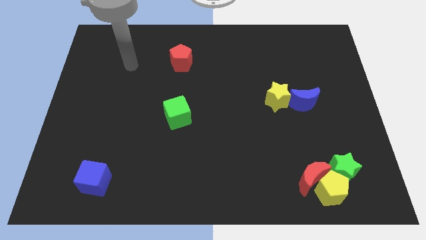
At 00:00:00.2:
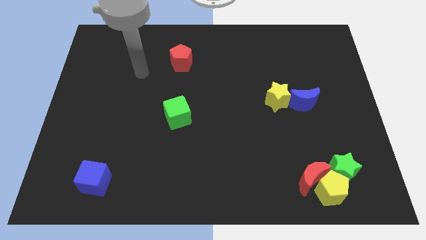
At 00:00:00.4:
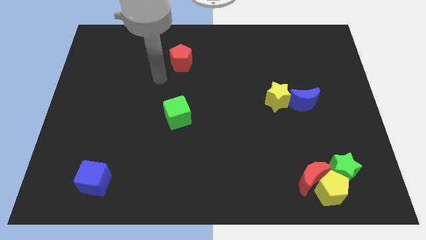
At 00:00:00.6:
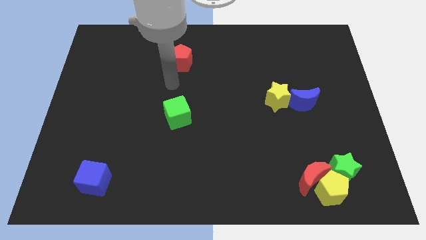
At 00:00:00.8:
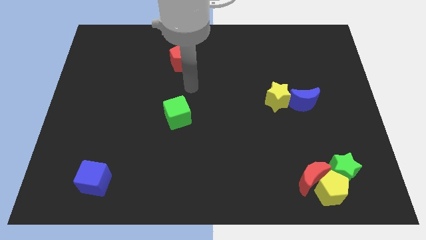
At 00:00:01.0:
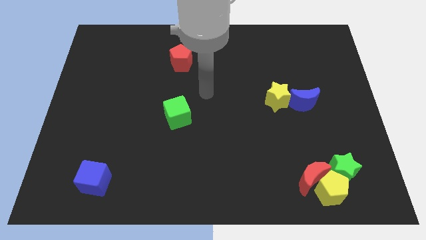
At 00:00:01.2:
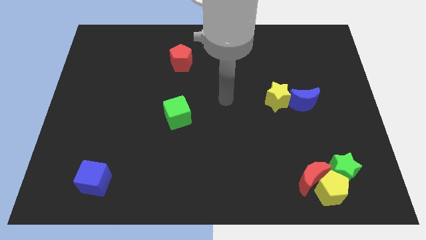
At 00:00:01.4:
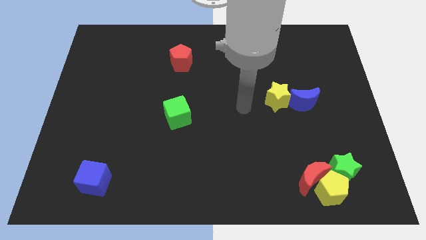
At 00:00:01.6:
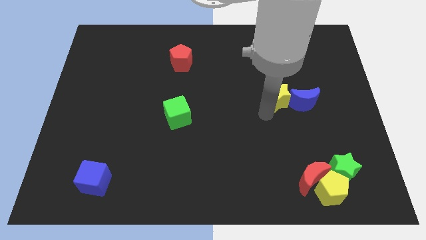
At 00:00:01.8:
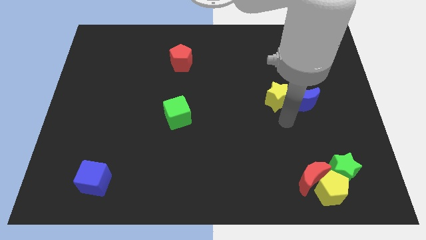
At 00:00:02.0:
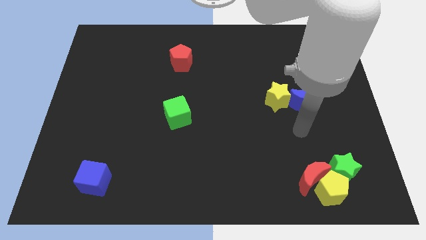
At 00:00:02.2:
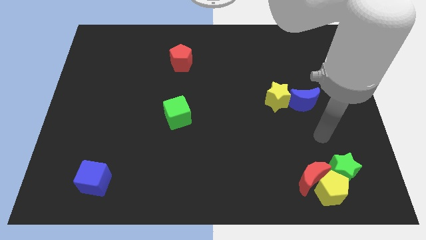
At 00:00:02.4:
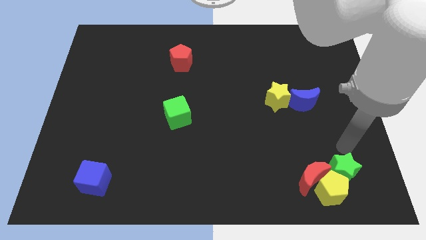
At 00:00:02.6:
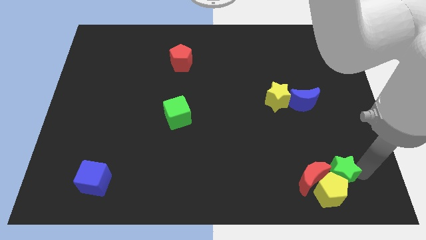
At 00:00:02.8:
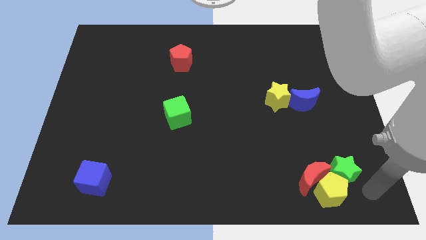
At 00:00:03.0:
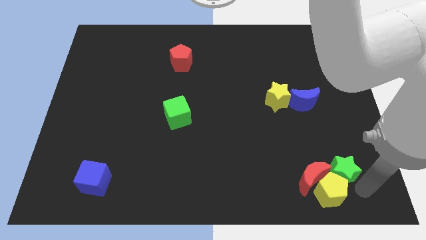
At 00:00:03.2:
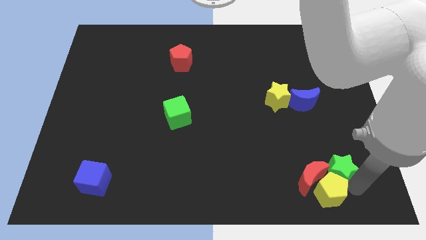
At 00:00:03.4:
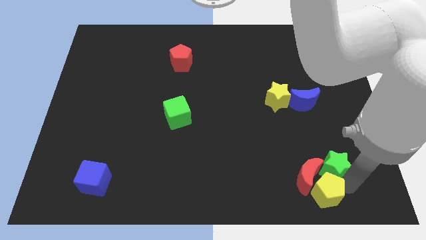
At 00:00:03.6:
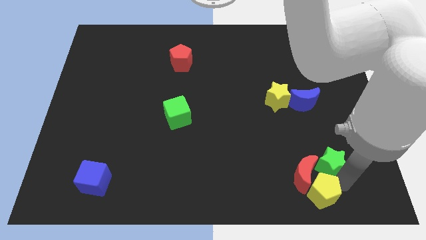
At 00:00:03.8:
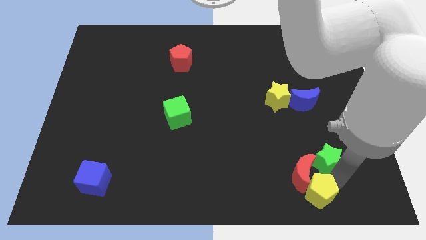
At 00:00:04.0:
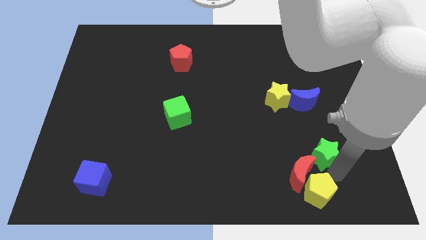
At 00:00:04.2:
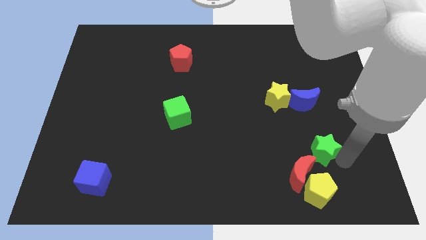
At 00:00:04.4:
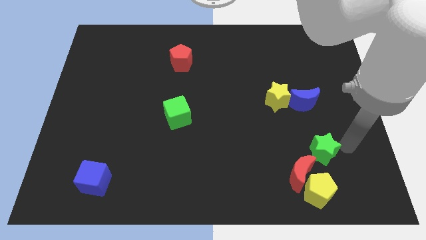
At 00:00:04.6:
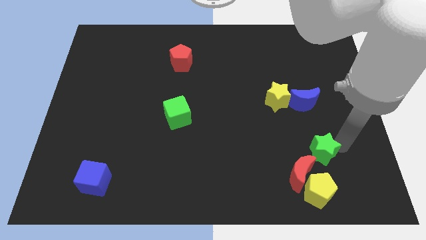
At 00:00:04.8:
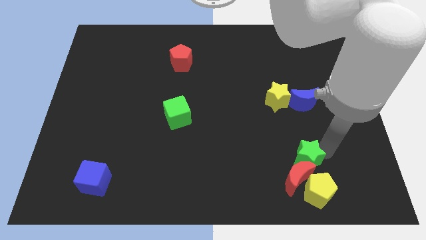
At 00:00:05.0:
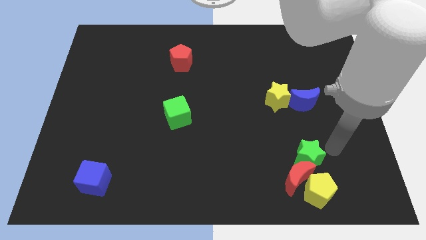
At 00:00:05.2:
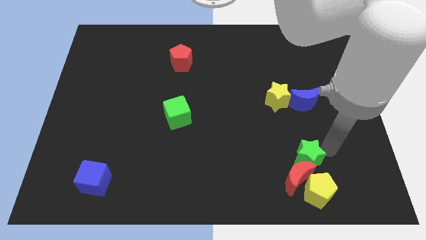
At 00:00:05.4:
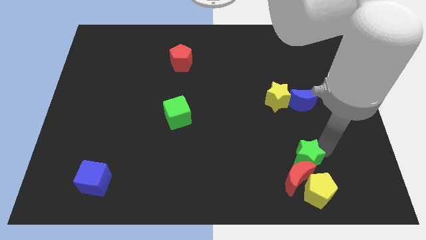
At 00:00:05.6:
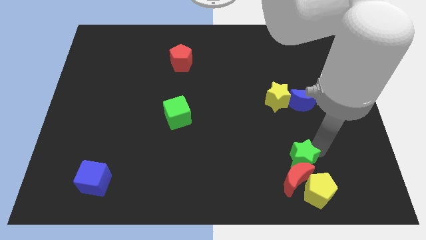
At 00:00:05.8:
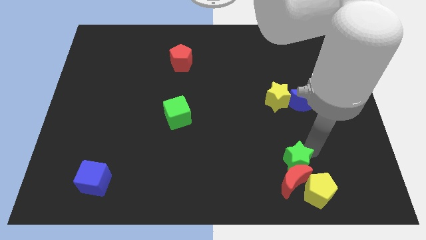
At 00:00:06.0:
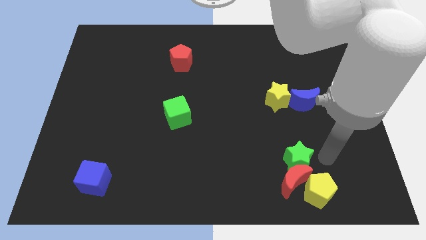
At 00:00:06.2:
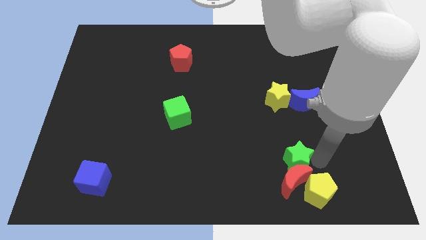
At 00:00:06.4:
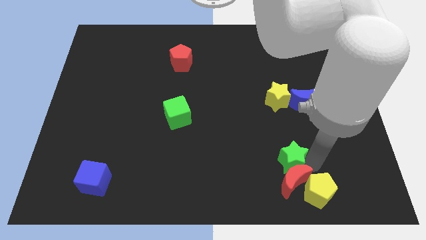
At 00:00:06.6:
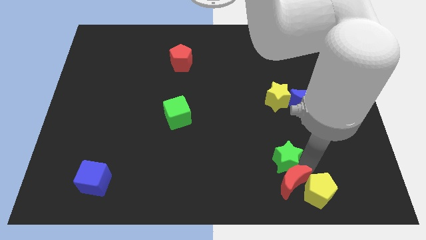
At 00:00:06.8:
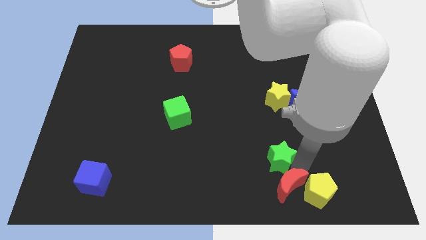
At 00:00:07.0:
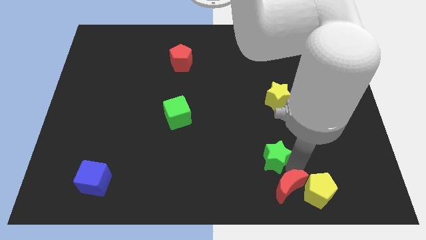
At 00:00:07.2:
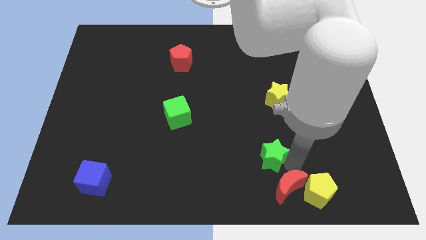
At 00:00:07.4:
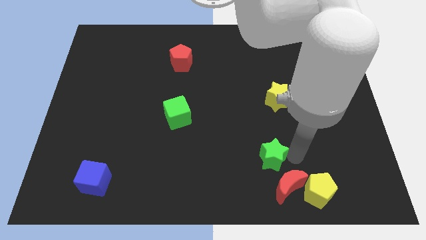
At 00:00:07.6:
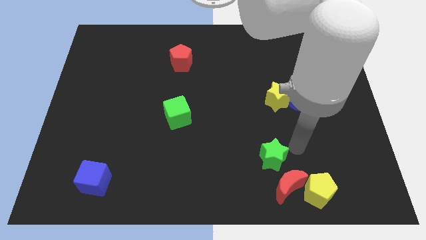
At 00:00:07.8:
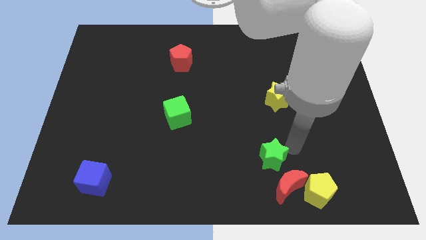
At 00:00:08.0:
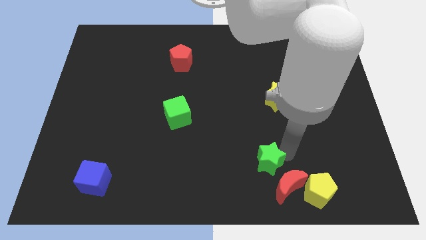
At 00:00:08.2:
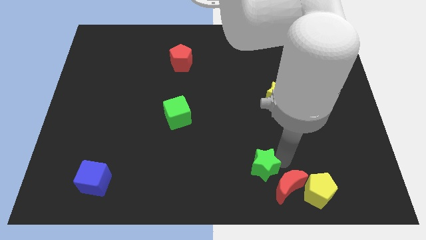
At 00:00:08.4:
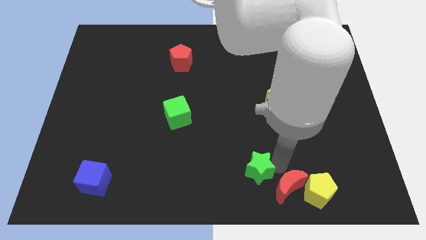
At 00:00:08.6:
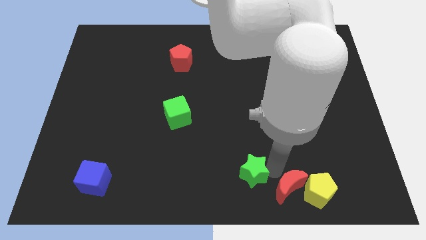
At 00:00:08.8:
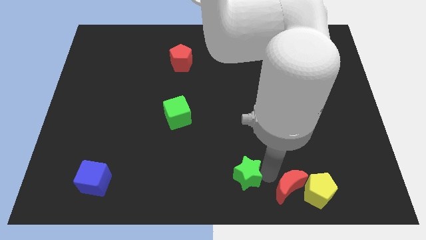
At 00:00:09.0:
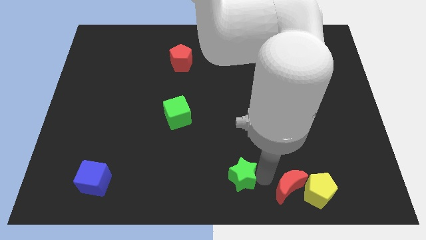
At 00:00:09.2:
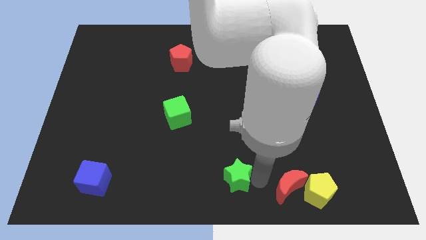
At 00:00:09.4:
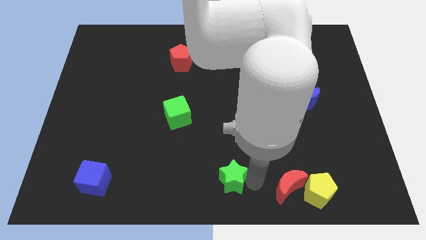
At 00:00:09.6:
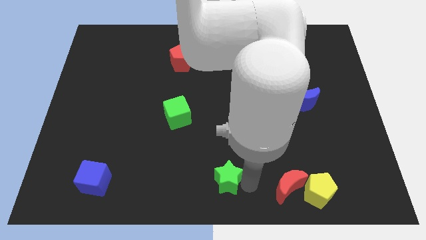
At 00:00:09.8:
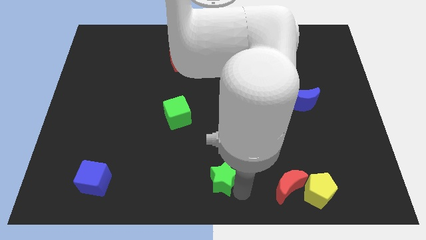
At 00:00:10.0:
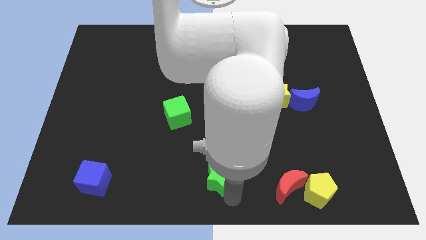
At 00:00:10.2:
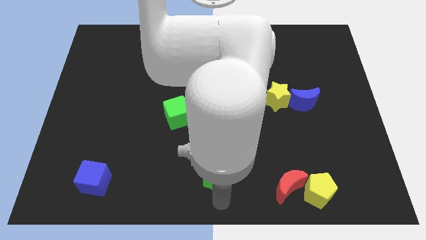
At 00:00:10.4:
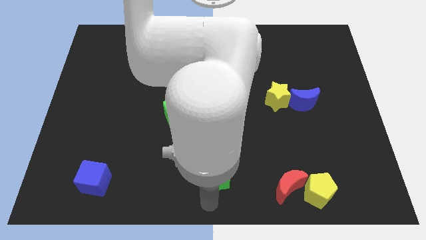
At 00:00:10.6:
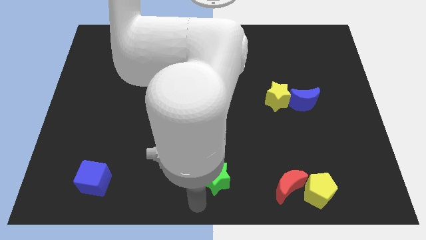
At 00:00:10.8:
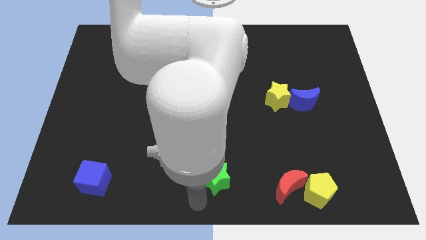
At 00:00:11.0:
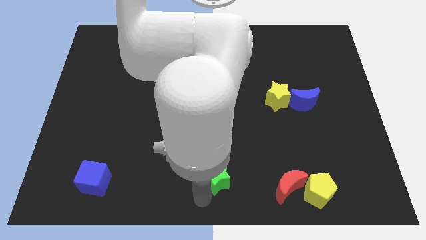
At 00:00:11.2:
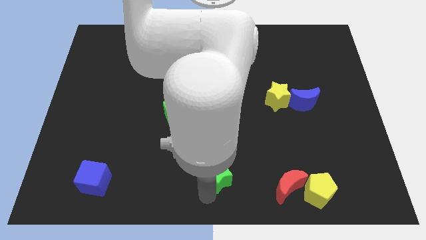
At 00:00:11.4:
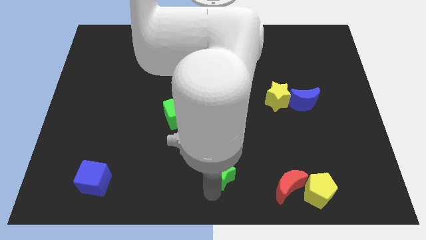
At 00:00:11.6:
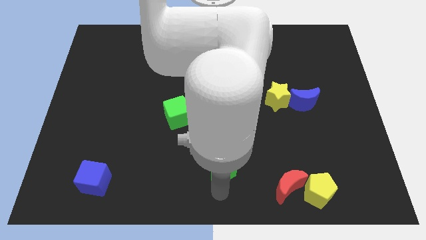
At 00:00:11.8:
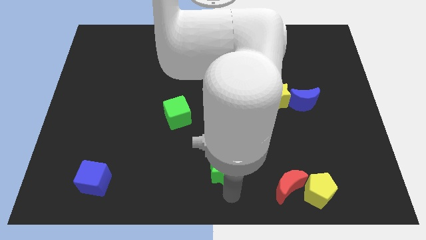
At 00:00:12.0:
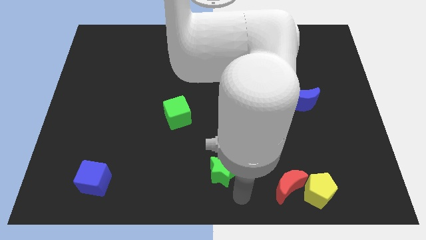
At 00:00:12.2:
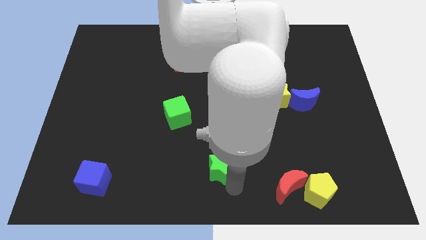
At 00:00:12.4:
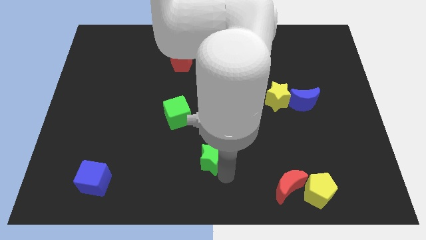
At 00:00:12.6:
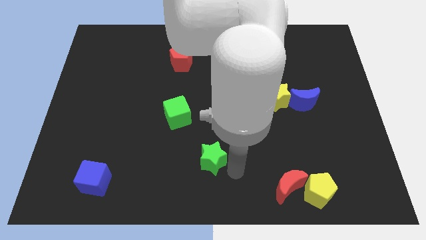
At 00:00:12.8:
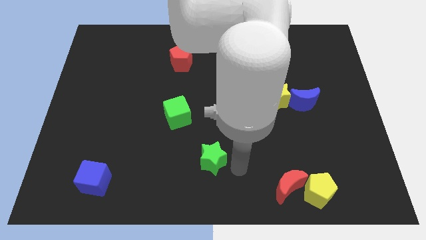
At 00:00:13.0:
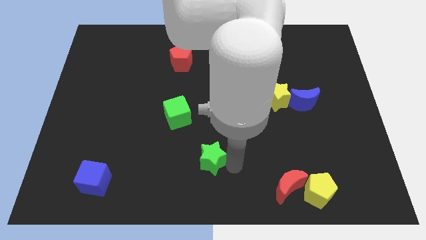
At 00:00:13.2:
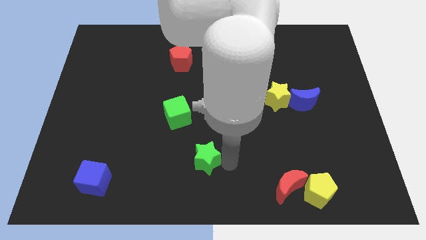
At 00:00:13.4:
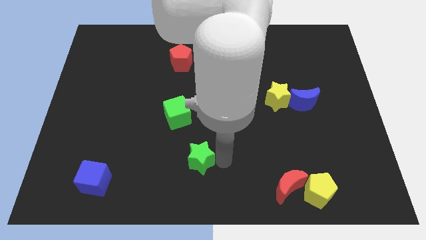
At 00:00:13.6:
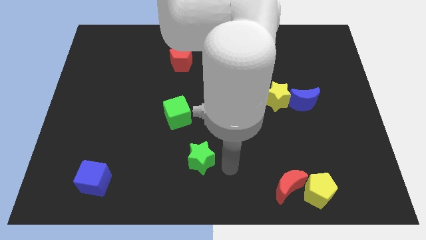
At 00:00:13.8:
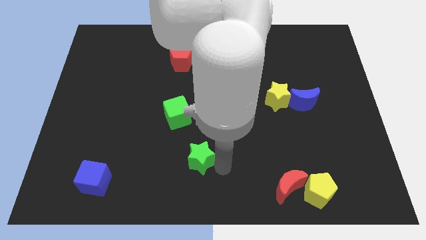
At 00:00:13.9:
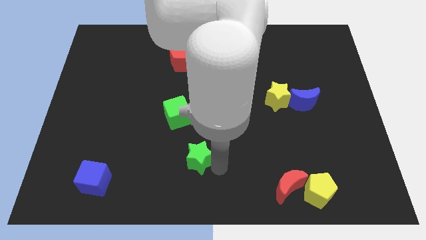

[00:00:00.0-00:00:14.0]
push the green star to the bottom side of the green cube

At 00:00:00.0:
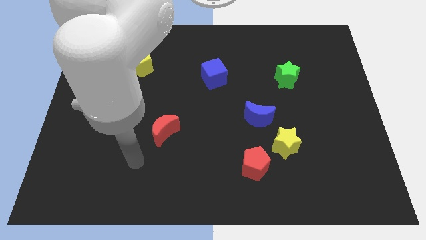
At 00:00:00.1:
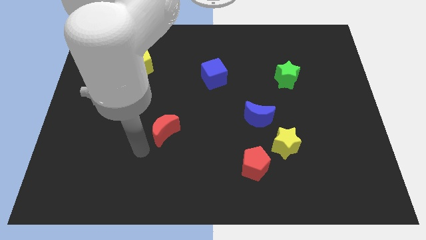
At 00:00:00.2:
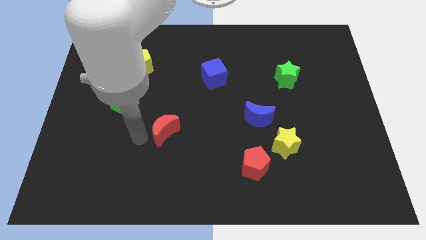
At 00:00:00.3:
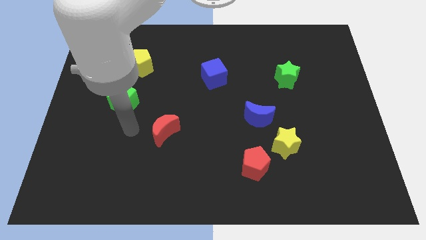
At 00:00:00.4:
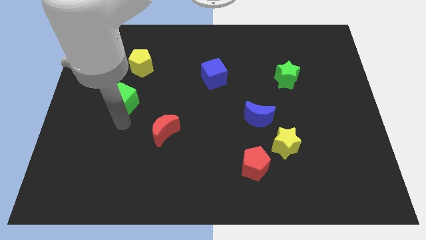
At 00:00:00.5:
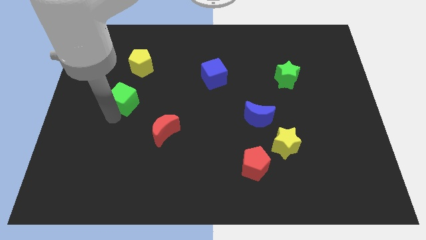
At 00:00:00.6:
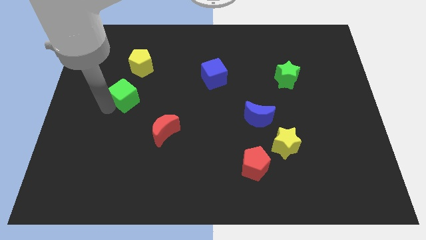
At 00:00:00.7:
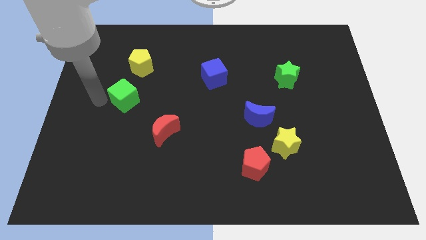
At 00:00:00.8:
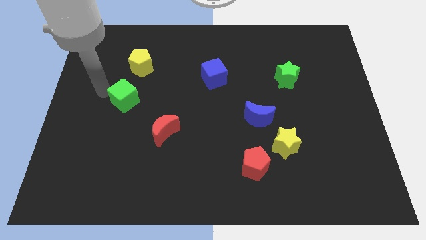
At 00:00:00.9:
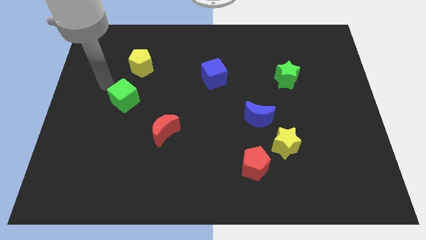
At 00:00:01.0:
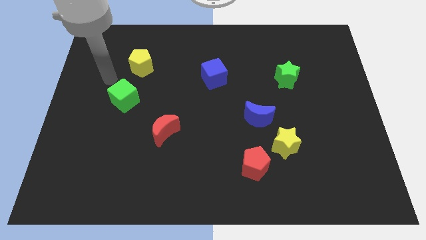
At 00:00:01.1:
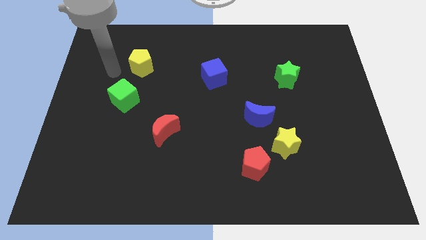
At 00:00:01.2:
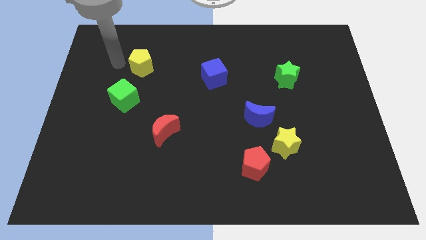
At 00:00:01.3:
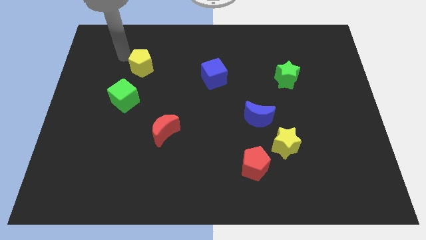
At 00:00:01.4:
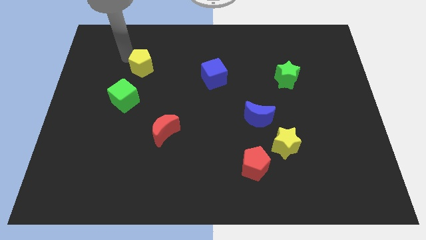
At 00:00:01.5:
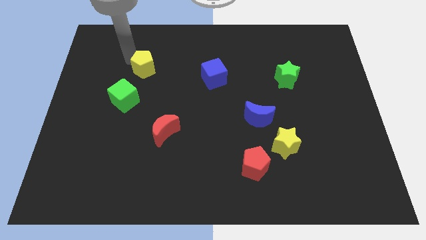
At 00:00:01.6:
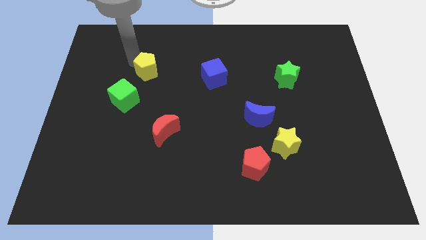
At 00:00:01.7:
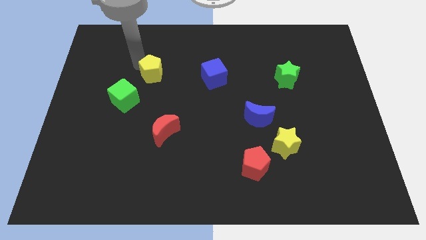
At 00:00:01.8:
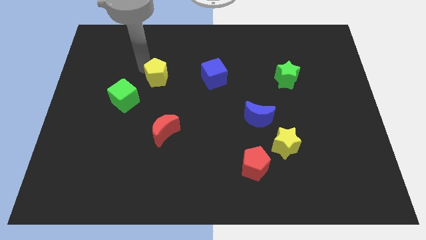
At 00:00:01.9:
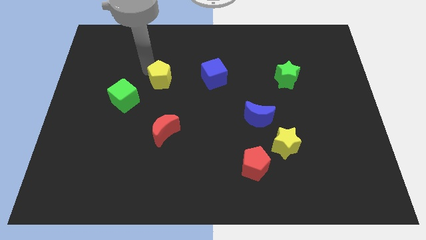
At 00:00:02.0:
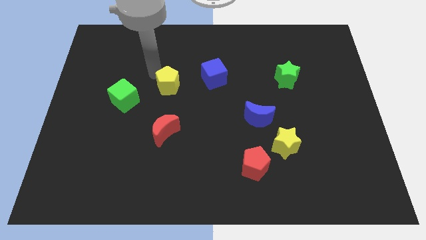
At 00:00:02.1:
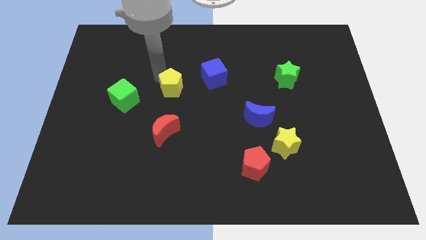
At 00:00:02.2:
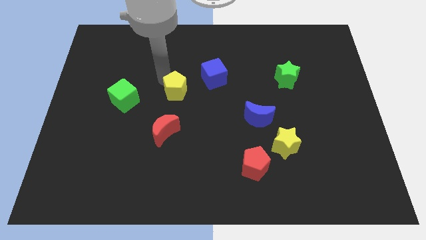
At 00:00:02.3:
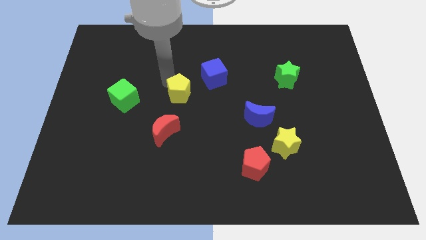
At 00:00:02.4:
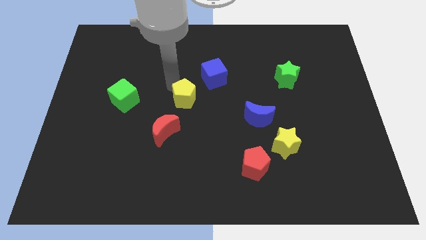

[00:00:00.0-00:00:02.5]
move the yellow pentagon to the top right side of the red moon
